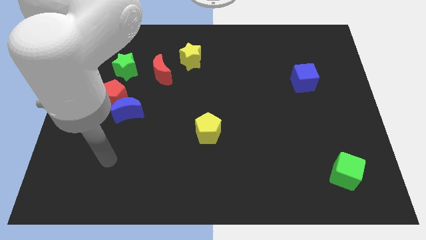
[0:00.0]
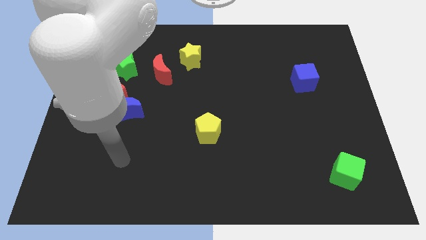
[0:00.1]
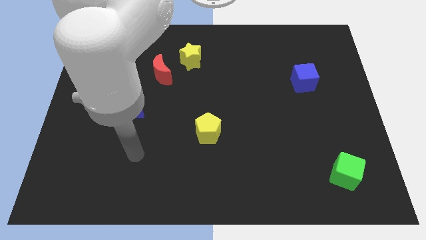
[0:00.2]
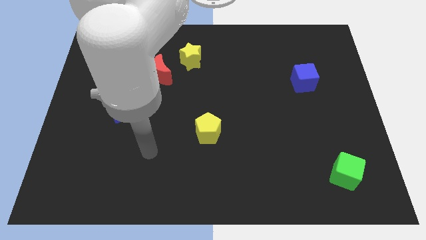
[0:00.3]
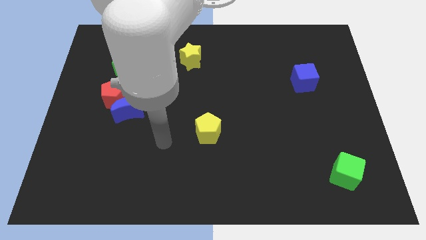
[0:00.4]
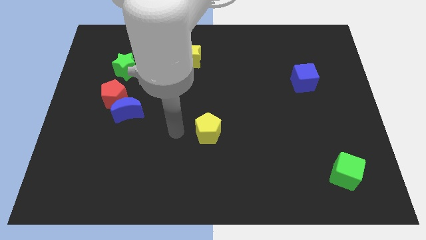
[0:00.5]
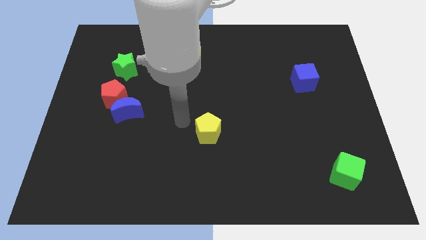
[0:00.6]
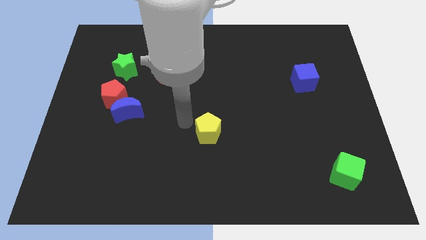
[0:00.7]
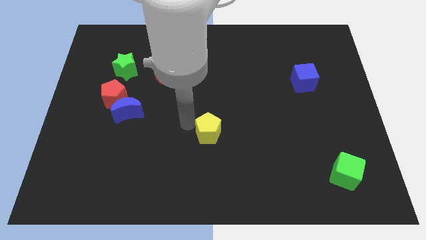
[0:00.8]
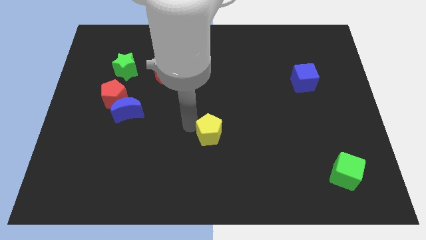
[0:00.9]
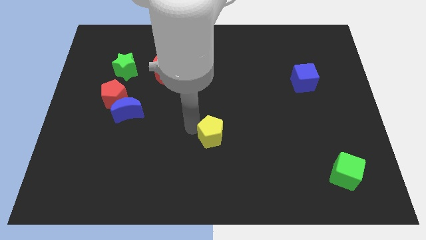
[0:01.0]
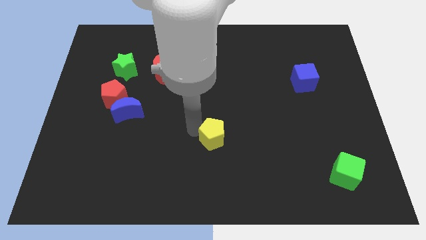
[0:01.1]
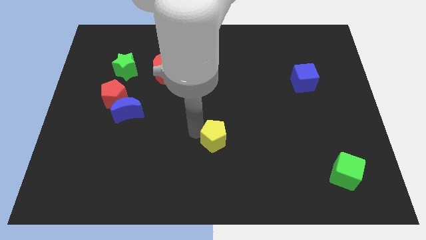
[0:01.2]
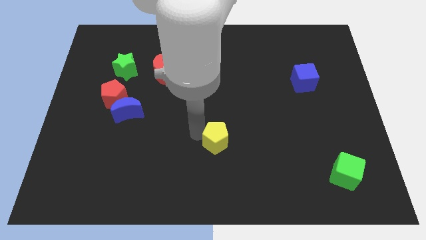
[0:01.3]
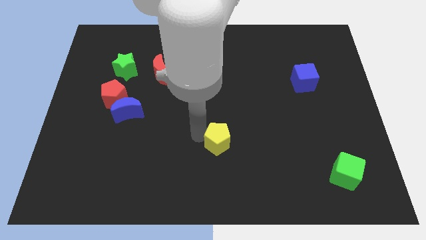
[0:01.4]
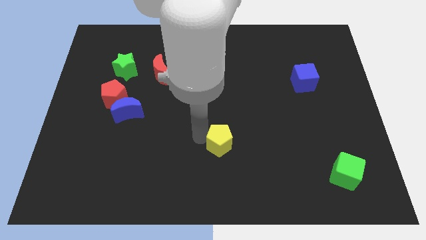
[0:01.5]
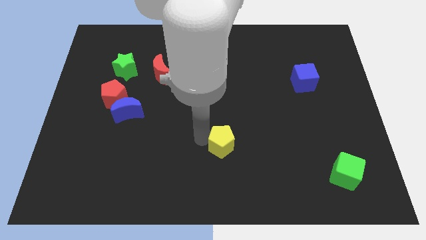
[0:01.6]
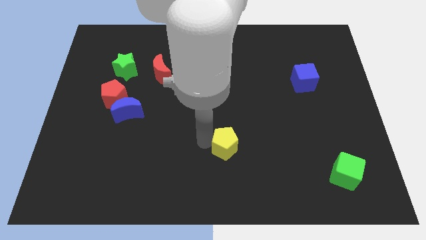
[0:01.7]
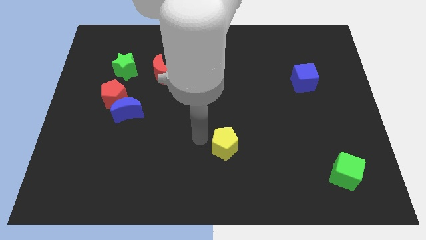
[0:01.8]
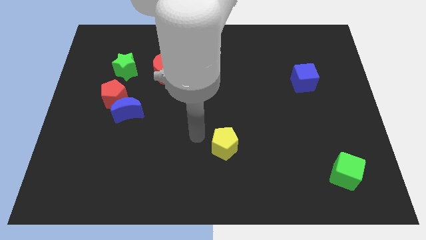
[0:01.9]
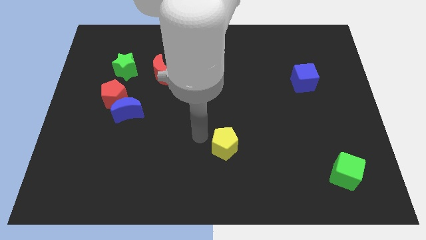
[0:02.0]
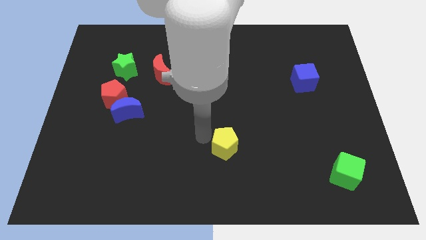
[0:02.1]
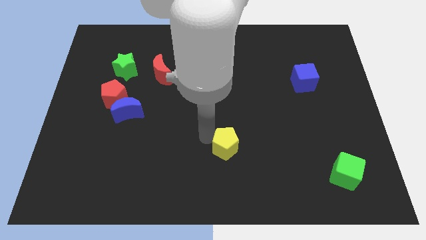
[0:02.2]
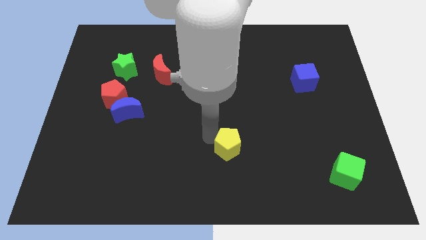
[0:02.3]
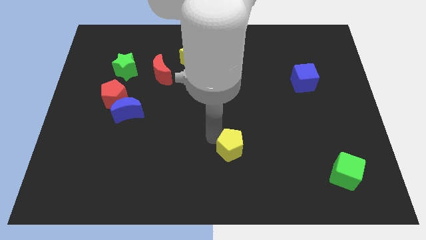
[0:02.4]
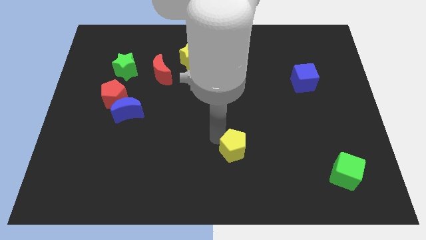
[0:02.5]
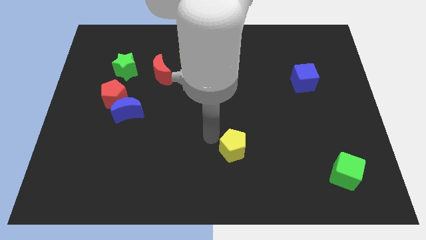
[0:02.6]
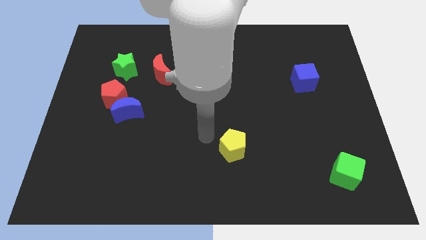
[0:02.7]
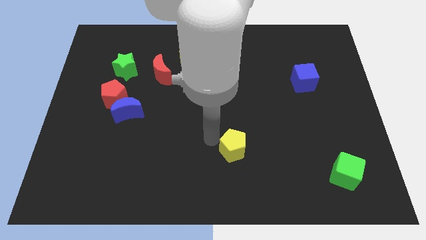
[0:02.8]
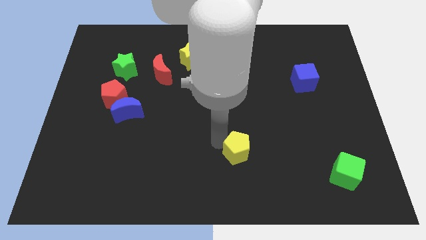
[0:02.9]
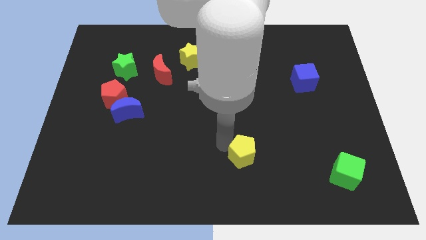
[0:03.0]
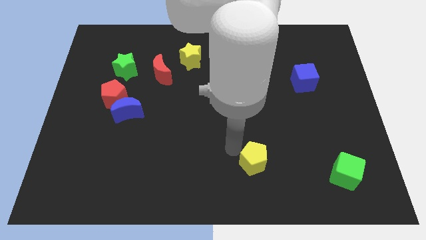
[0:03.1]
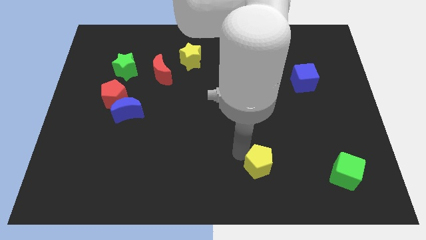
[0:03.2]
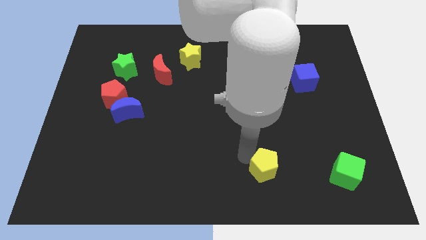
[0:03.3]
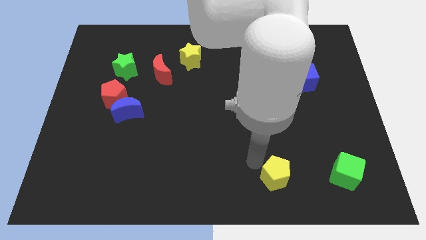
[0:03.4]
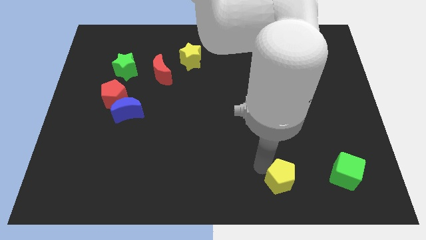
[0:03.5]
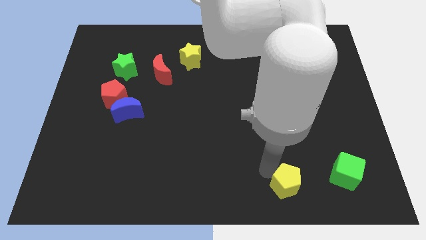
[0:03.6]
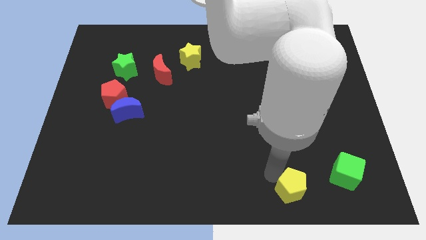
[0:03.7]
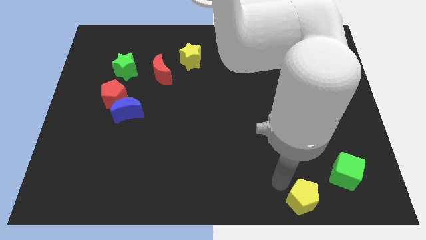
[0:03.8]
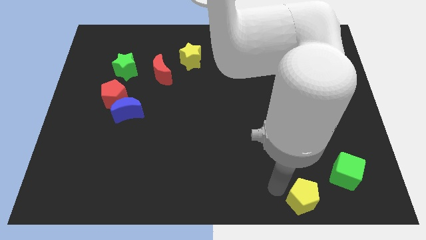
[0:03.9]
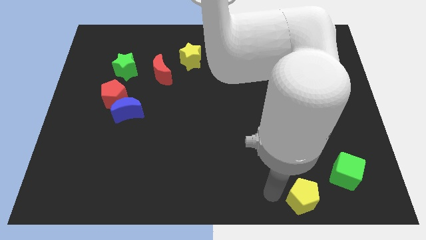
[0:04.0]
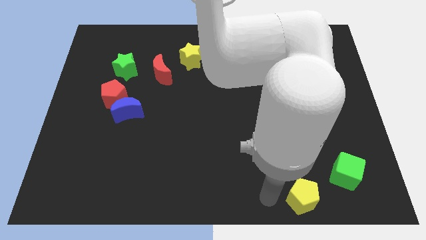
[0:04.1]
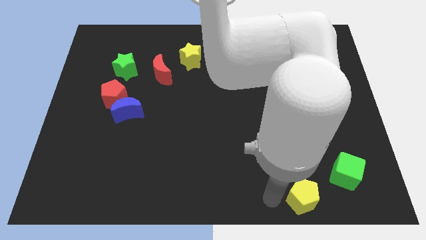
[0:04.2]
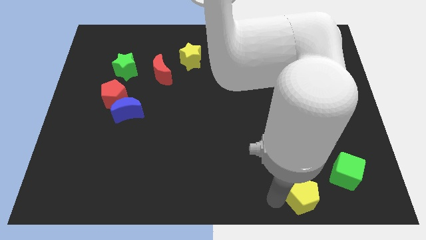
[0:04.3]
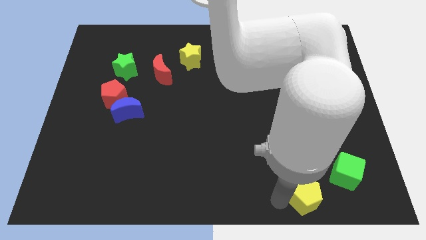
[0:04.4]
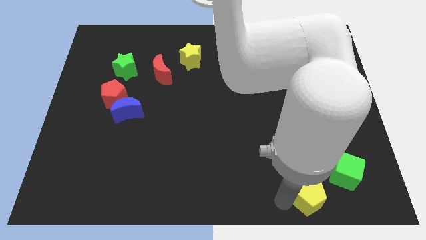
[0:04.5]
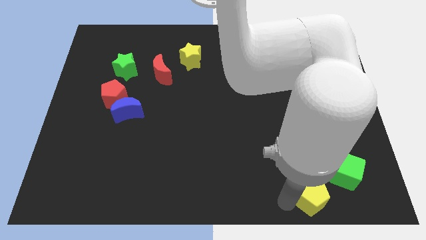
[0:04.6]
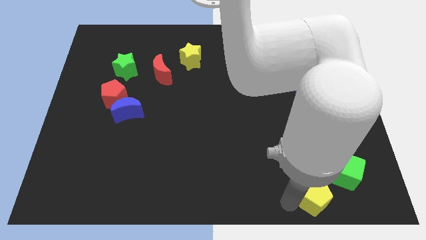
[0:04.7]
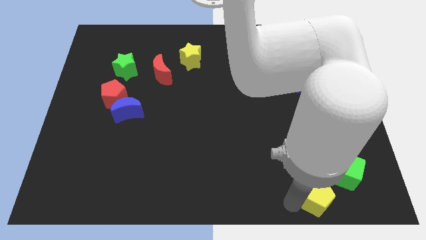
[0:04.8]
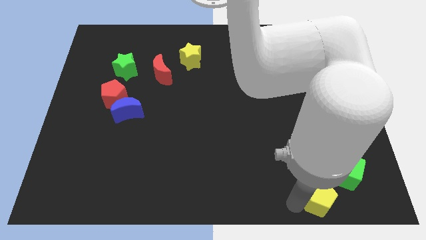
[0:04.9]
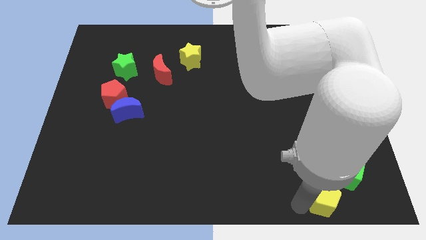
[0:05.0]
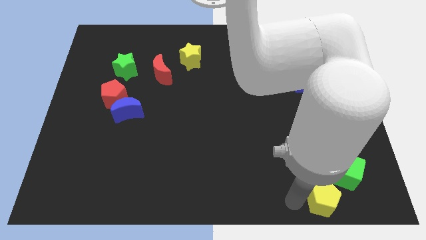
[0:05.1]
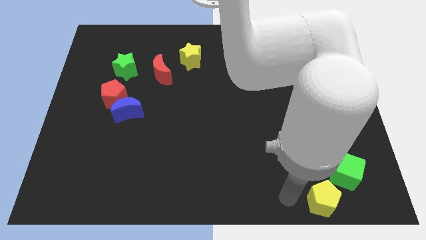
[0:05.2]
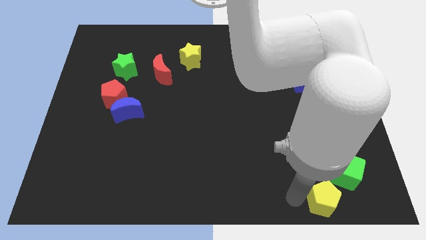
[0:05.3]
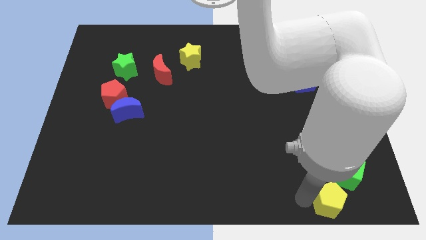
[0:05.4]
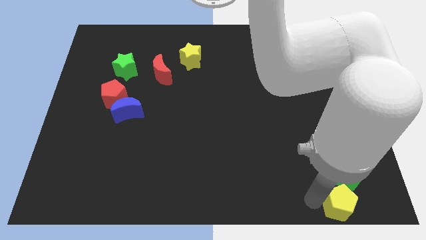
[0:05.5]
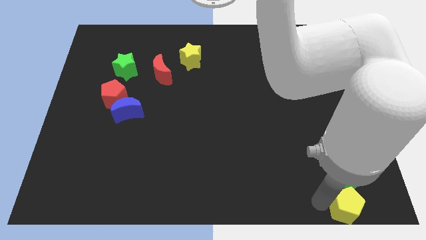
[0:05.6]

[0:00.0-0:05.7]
move the yellow pentagon to the bottom right
